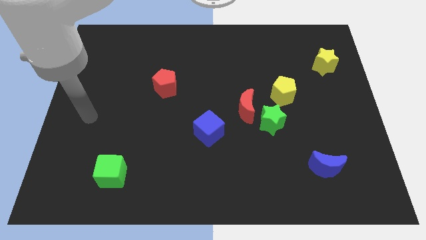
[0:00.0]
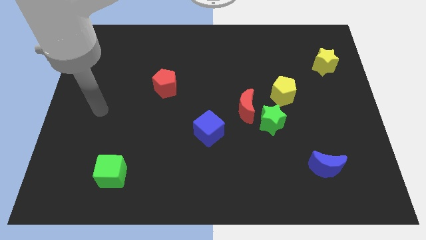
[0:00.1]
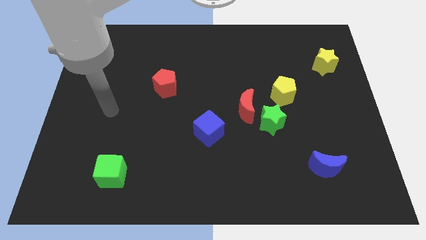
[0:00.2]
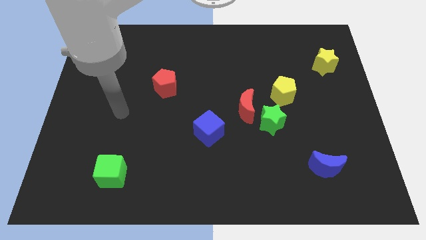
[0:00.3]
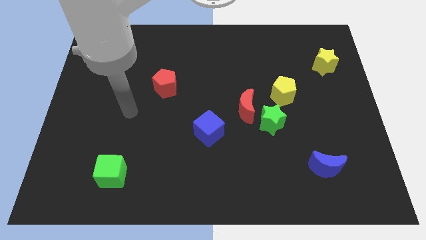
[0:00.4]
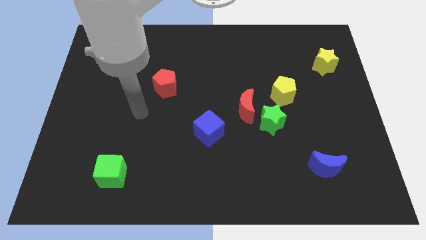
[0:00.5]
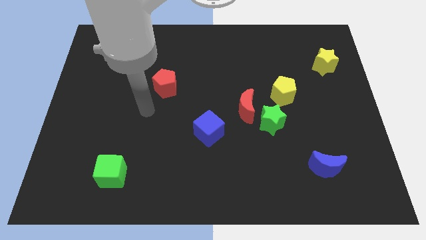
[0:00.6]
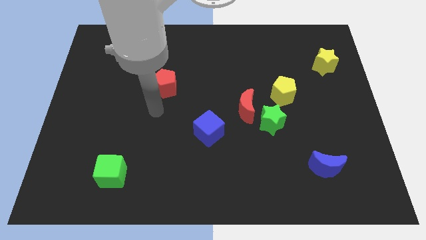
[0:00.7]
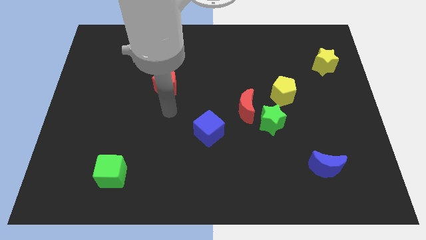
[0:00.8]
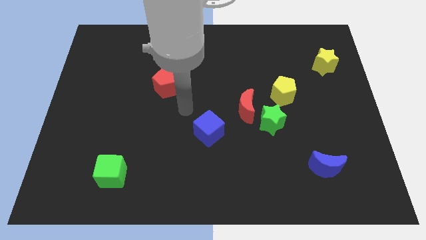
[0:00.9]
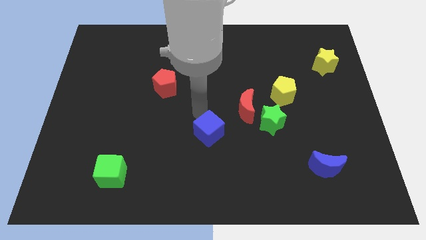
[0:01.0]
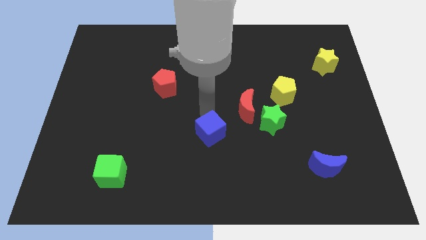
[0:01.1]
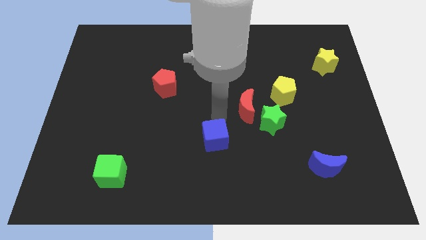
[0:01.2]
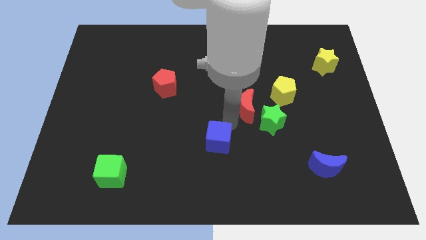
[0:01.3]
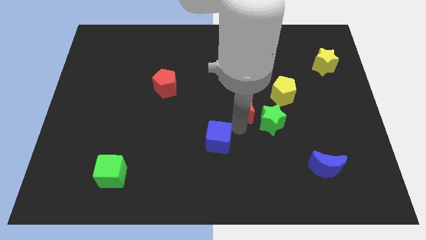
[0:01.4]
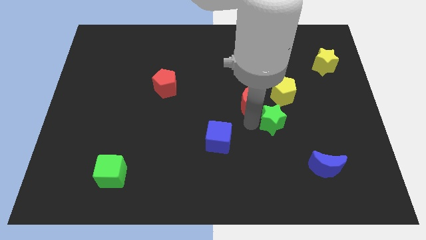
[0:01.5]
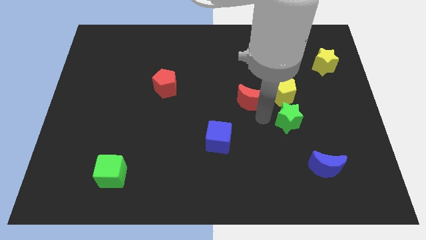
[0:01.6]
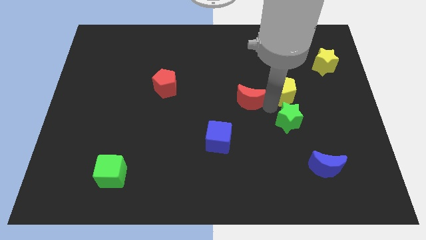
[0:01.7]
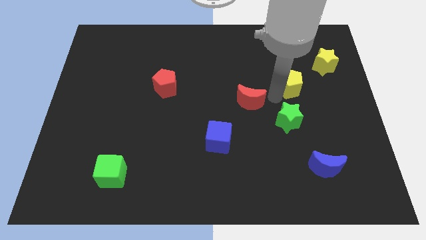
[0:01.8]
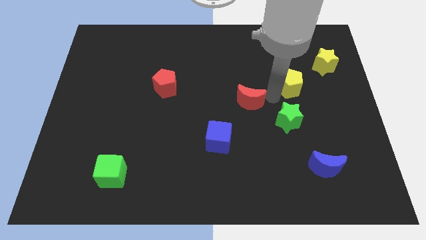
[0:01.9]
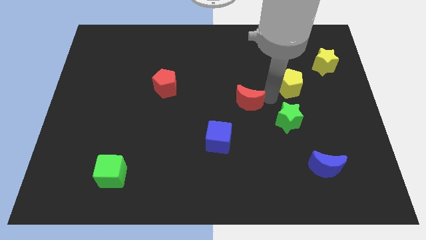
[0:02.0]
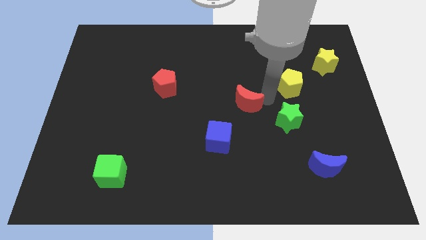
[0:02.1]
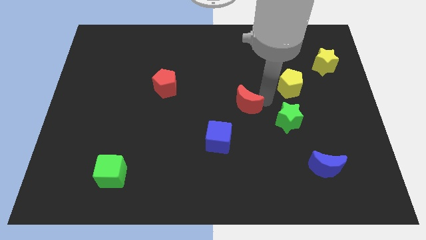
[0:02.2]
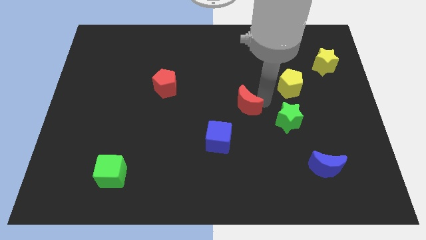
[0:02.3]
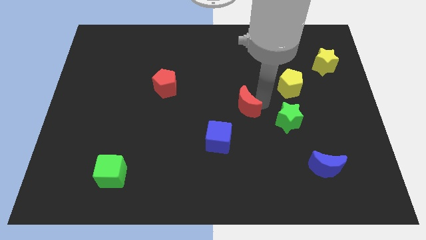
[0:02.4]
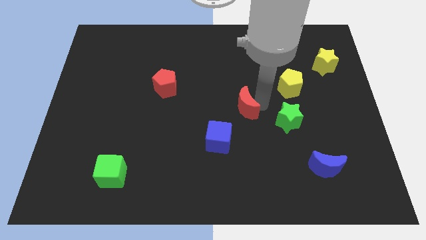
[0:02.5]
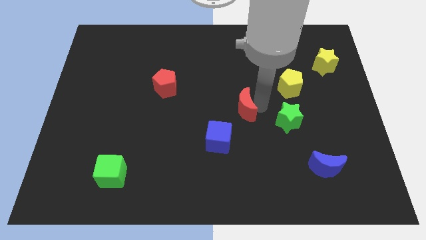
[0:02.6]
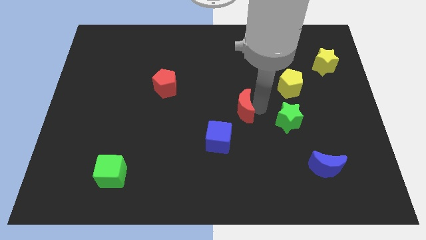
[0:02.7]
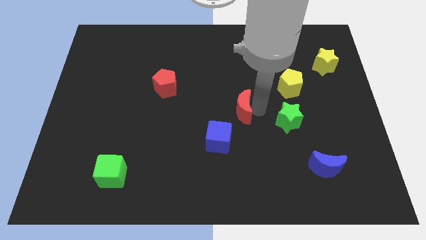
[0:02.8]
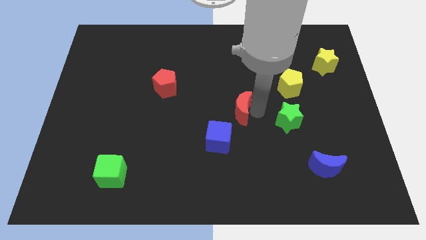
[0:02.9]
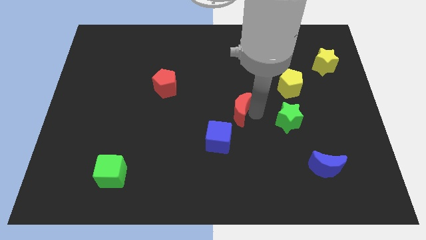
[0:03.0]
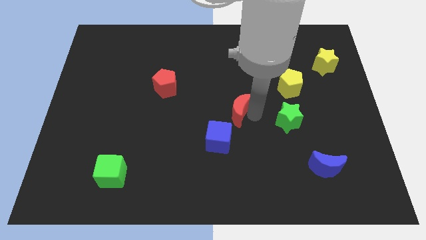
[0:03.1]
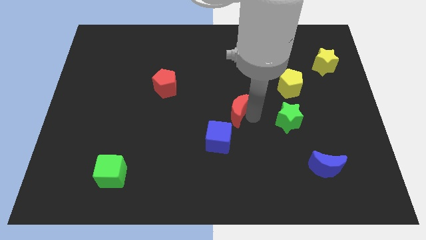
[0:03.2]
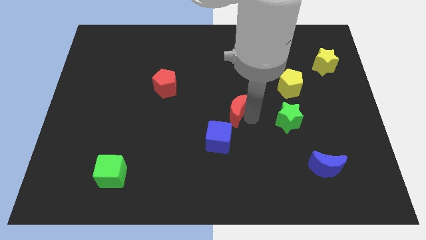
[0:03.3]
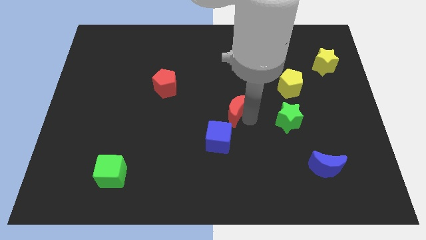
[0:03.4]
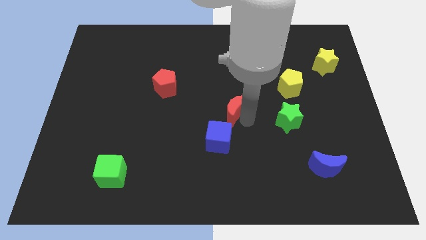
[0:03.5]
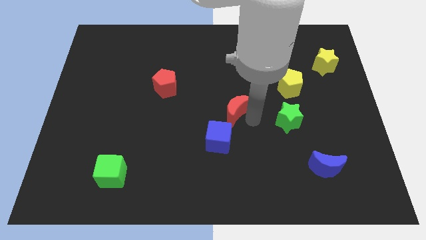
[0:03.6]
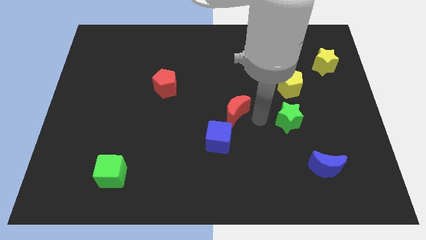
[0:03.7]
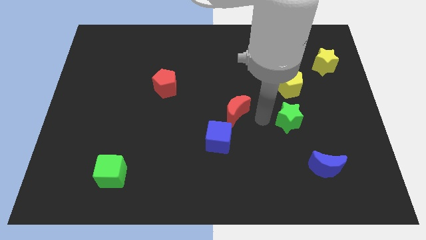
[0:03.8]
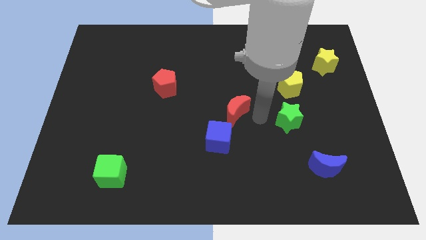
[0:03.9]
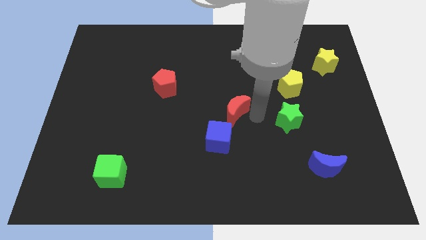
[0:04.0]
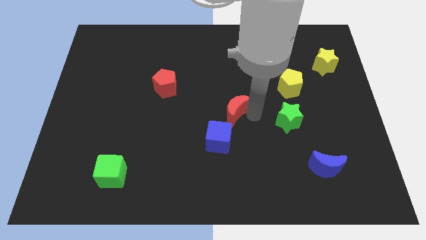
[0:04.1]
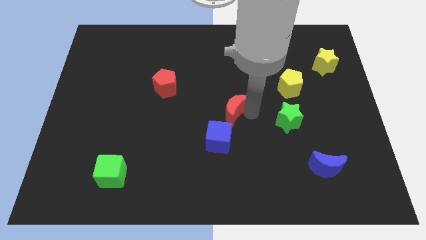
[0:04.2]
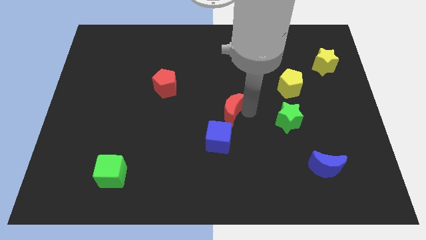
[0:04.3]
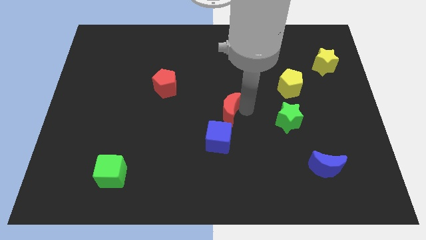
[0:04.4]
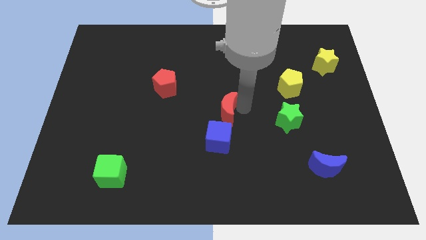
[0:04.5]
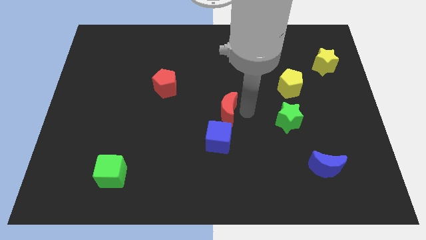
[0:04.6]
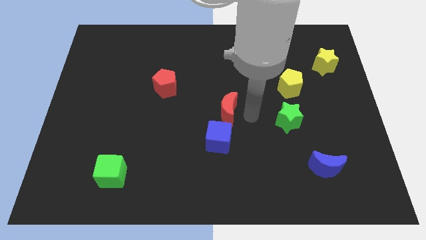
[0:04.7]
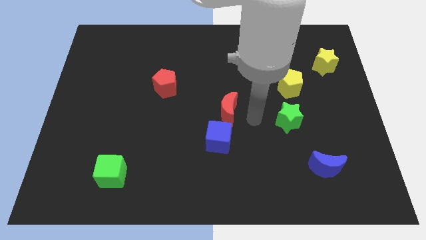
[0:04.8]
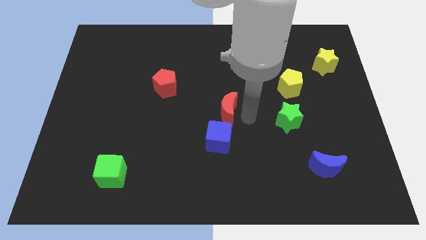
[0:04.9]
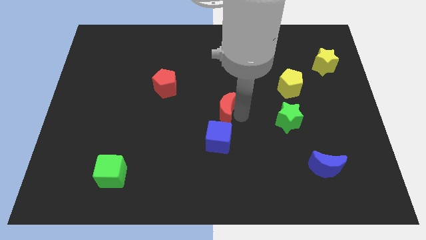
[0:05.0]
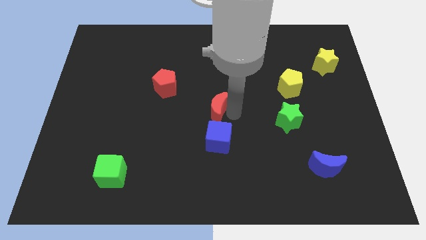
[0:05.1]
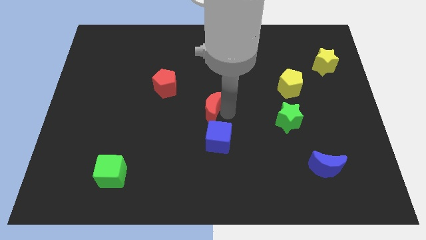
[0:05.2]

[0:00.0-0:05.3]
slightly move the red moon left

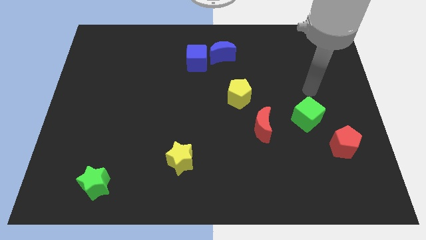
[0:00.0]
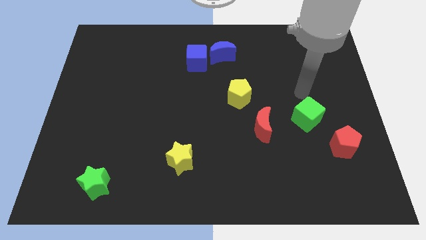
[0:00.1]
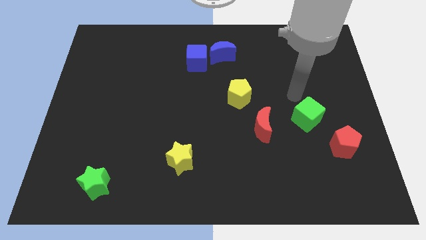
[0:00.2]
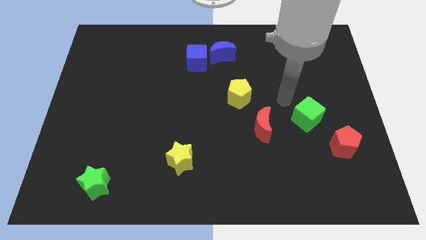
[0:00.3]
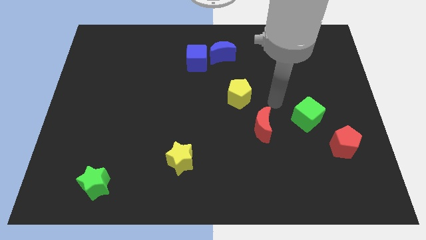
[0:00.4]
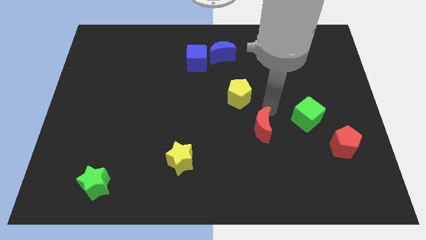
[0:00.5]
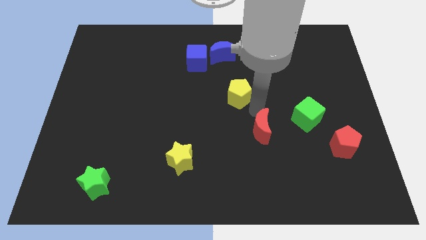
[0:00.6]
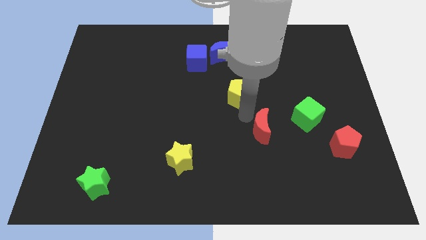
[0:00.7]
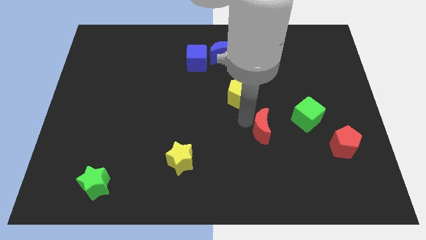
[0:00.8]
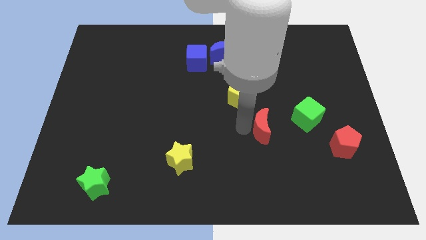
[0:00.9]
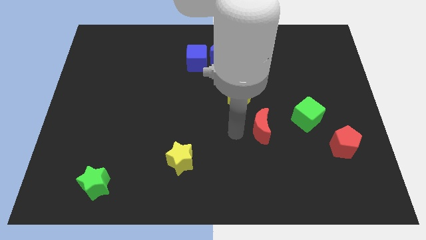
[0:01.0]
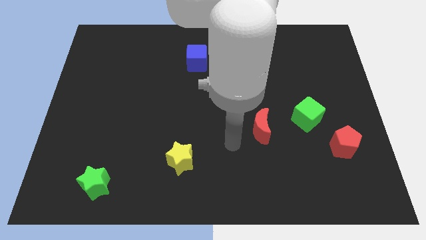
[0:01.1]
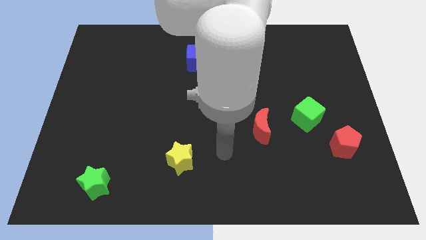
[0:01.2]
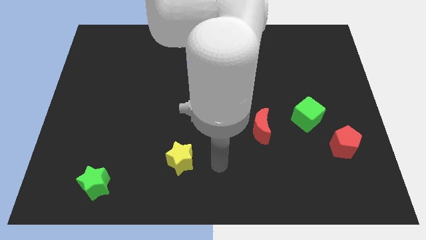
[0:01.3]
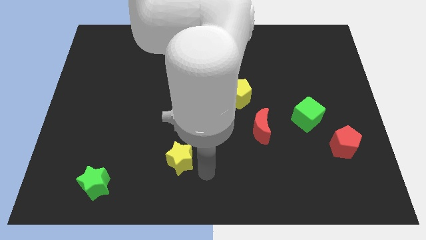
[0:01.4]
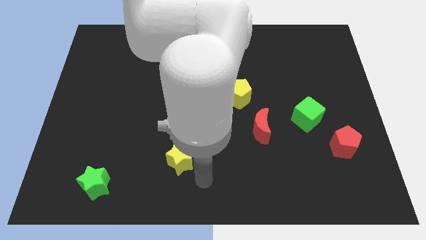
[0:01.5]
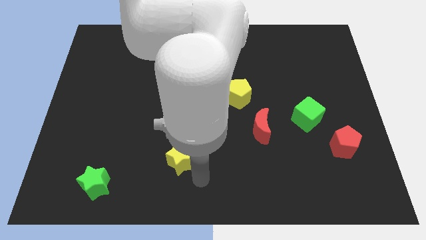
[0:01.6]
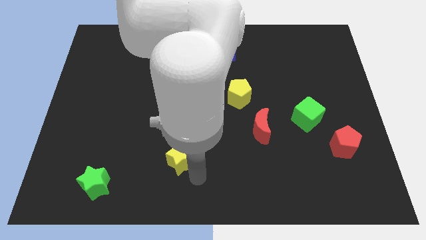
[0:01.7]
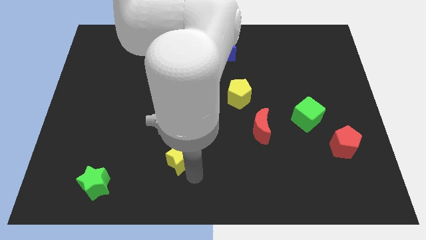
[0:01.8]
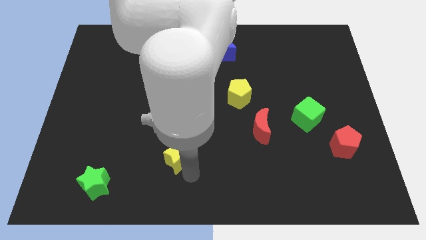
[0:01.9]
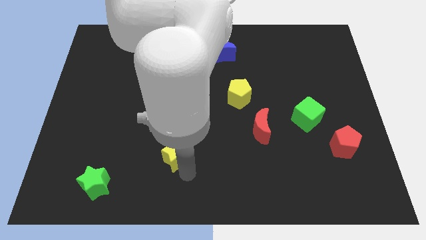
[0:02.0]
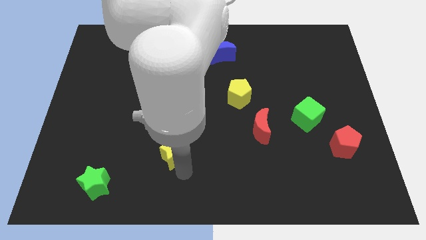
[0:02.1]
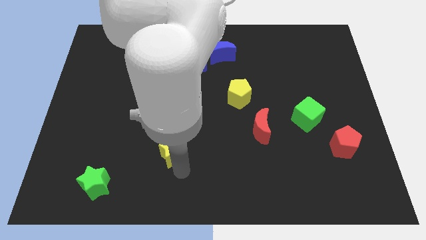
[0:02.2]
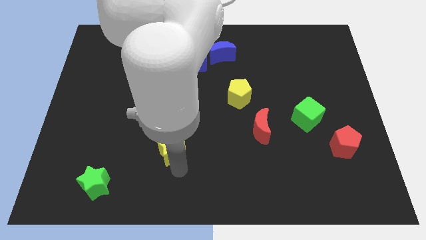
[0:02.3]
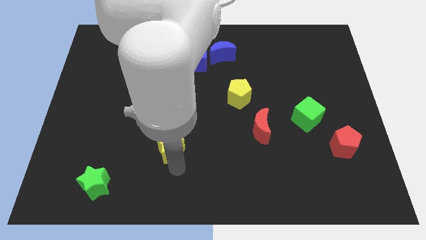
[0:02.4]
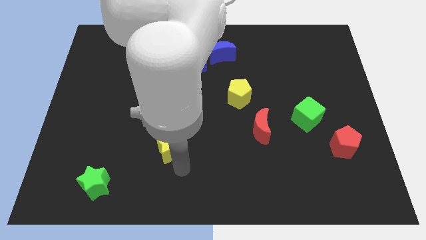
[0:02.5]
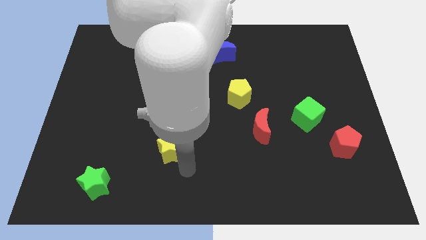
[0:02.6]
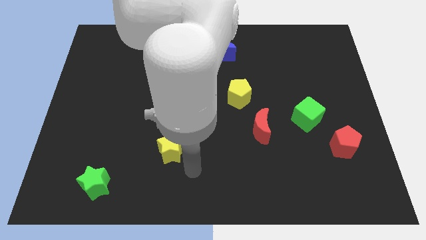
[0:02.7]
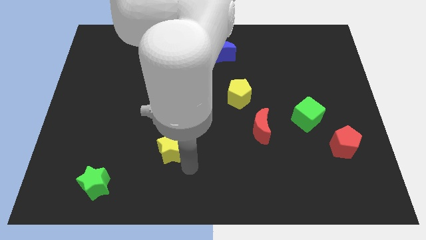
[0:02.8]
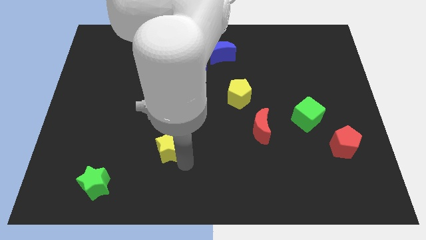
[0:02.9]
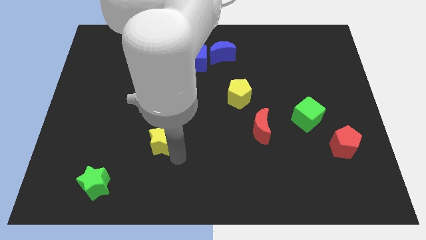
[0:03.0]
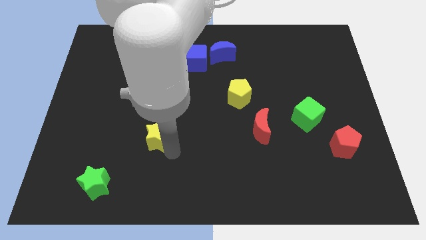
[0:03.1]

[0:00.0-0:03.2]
move the yellow star slightly upwards and then to the left
